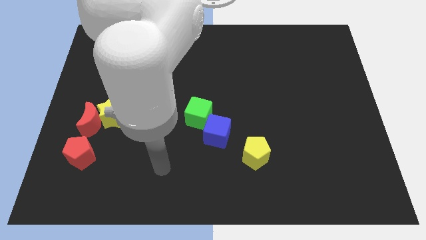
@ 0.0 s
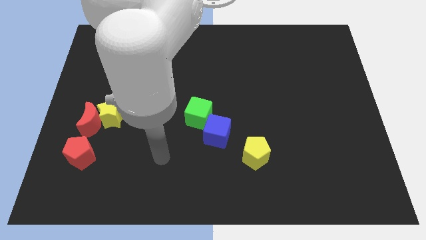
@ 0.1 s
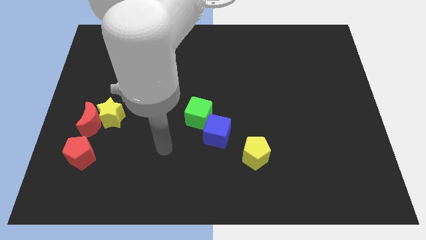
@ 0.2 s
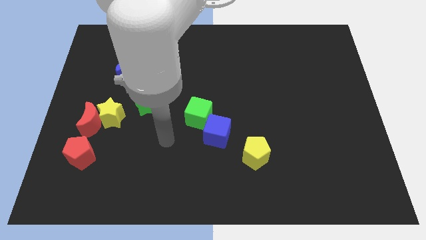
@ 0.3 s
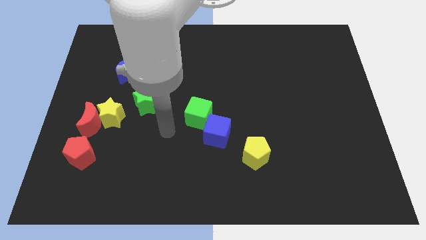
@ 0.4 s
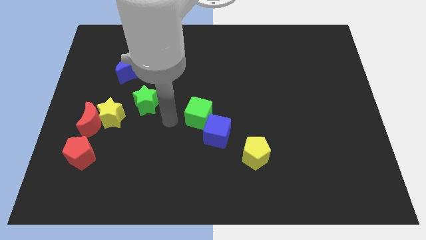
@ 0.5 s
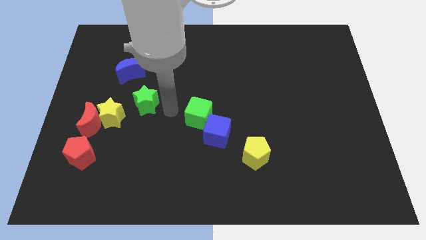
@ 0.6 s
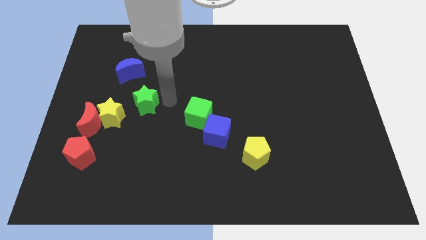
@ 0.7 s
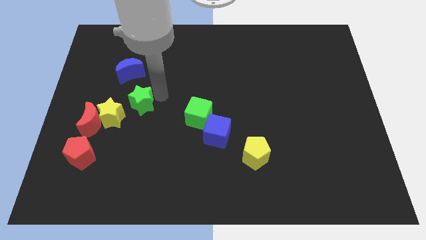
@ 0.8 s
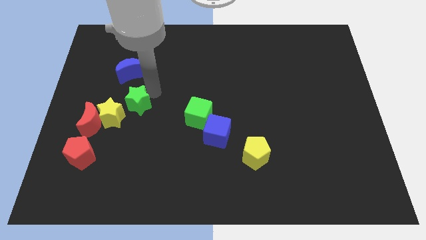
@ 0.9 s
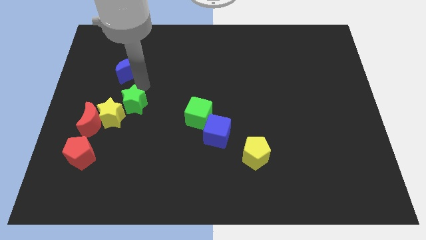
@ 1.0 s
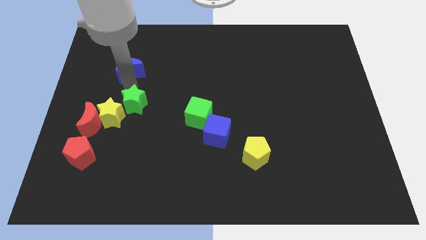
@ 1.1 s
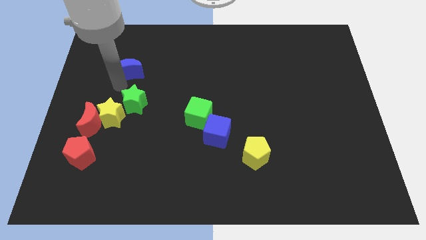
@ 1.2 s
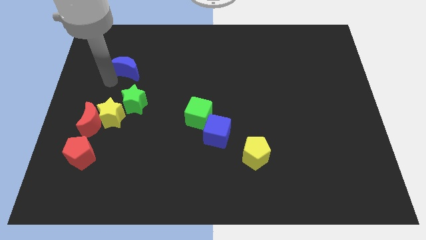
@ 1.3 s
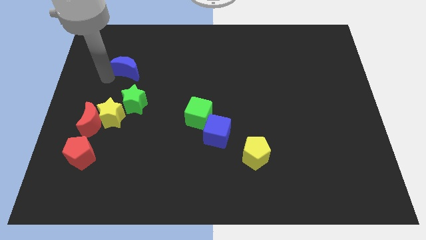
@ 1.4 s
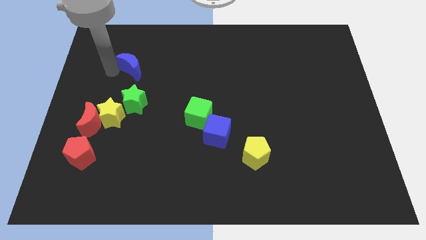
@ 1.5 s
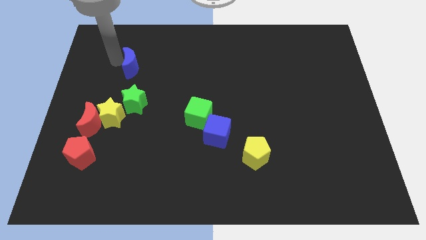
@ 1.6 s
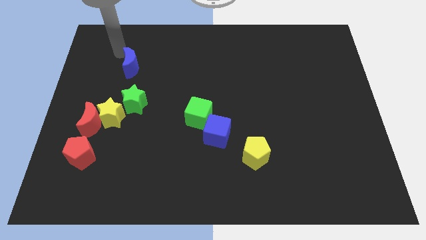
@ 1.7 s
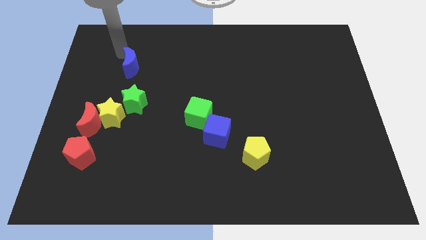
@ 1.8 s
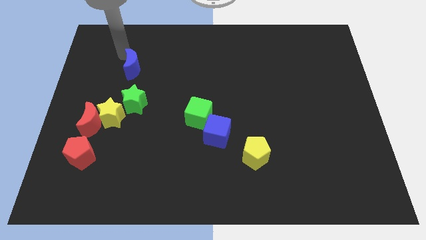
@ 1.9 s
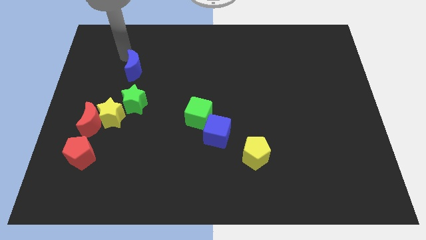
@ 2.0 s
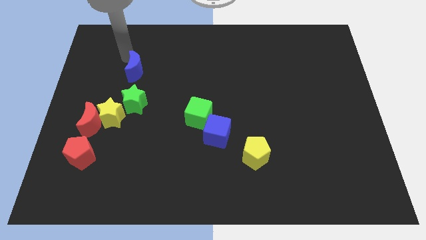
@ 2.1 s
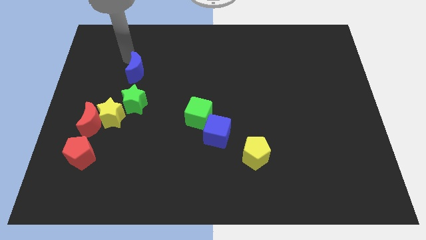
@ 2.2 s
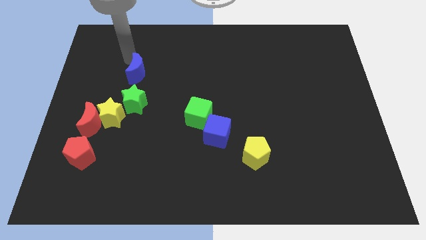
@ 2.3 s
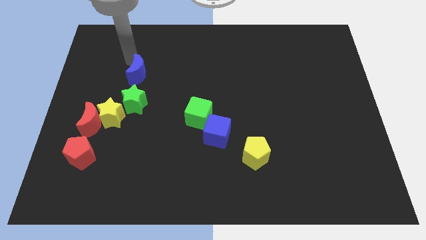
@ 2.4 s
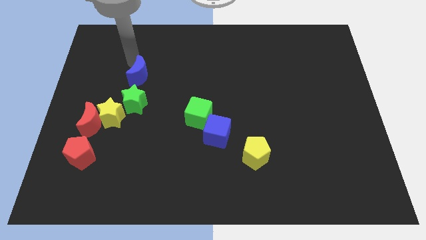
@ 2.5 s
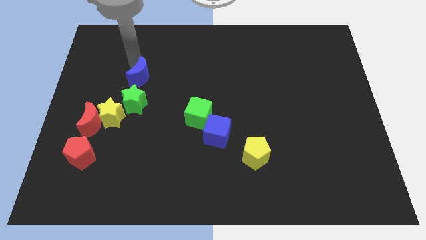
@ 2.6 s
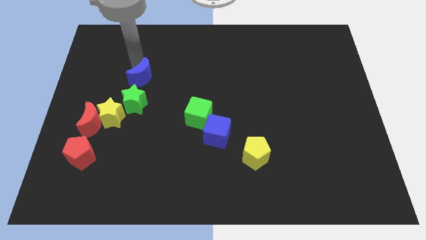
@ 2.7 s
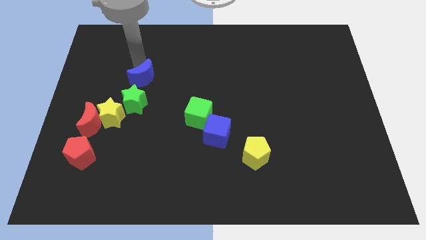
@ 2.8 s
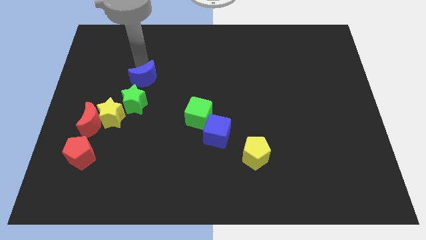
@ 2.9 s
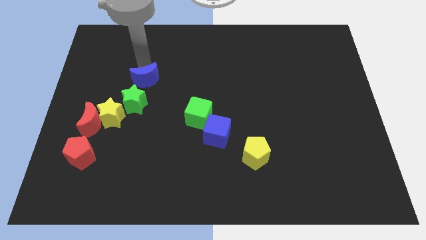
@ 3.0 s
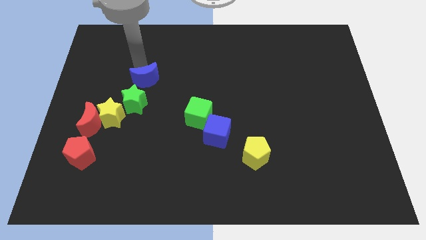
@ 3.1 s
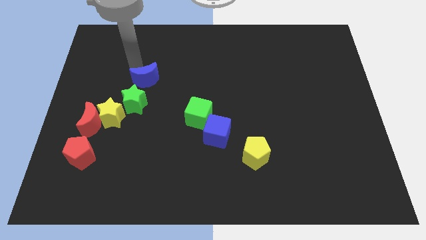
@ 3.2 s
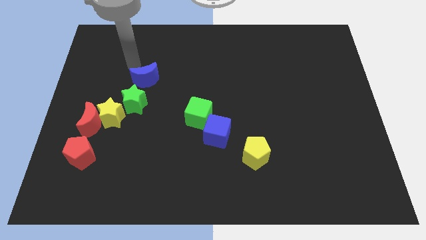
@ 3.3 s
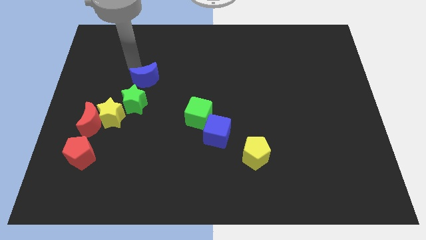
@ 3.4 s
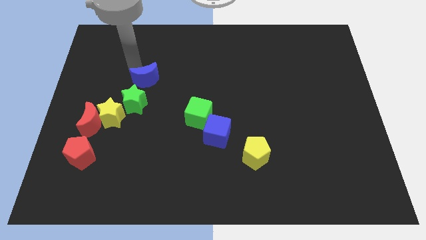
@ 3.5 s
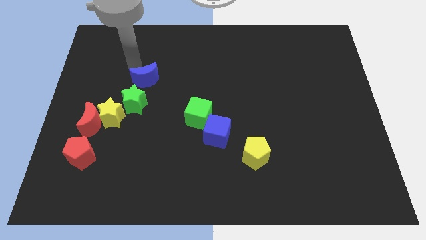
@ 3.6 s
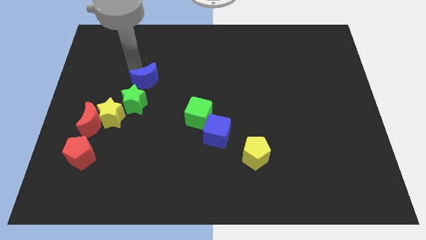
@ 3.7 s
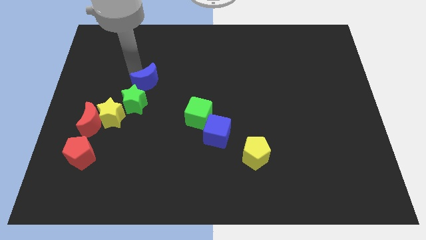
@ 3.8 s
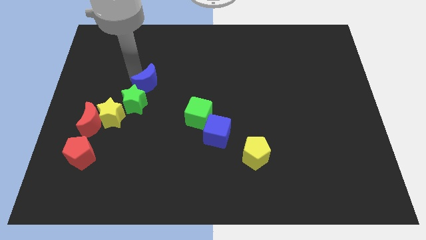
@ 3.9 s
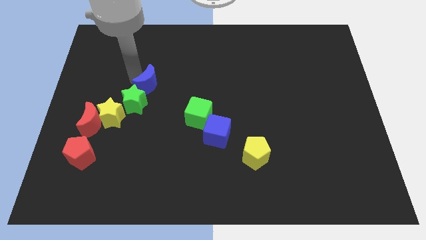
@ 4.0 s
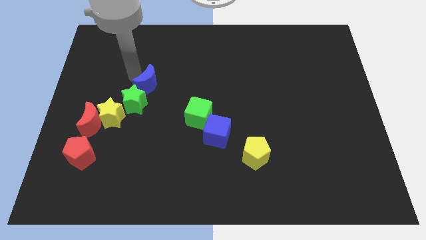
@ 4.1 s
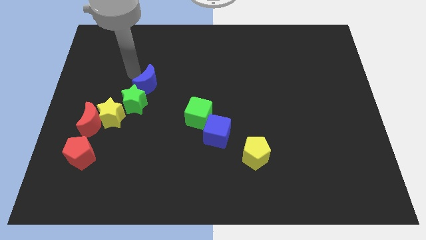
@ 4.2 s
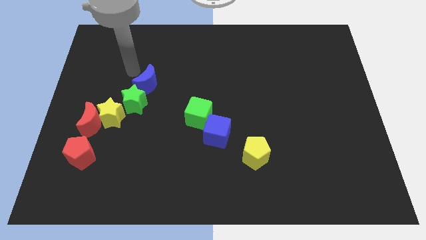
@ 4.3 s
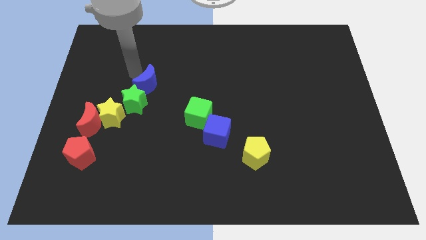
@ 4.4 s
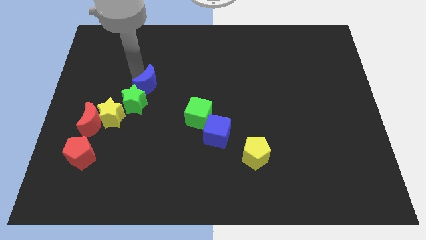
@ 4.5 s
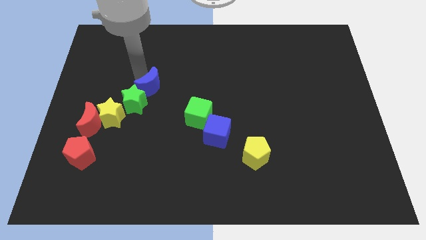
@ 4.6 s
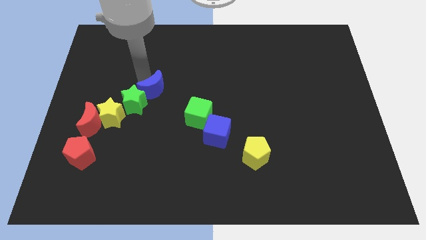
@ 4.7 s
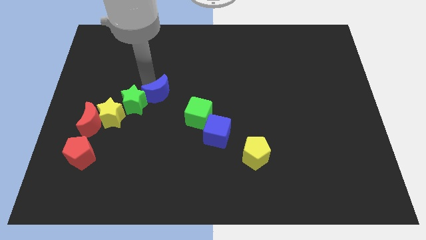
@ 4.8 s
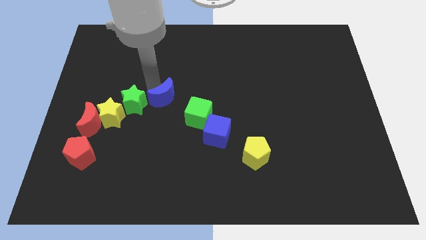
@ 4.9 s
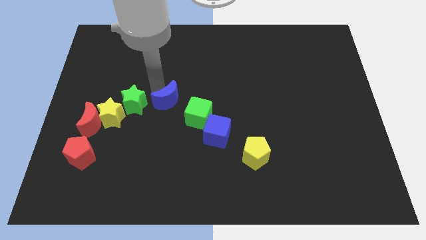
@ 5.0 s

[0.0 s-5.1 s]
slide the blue moon to the right side of the yellow star

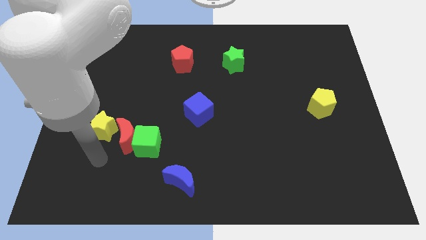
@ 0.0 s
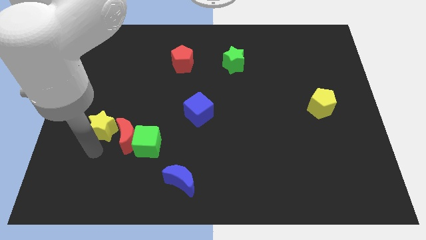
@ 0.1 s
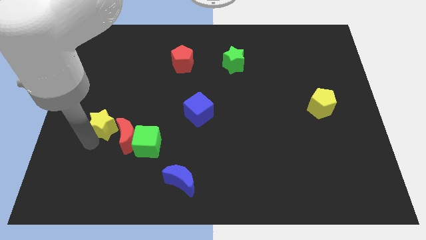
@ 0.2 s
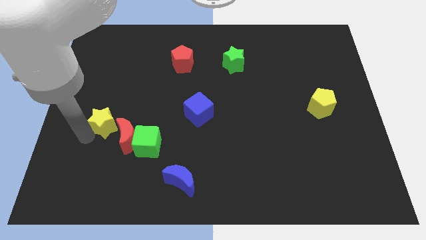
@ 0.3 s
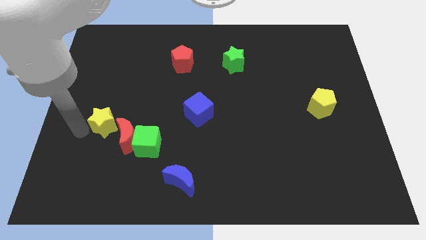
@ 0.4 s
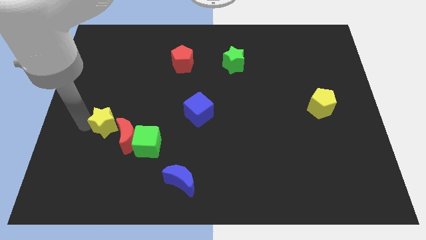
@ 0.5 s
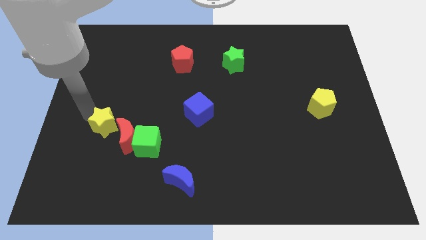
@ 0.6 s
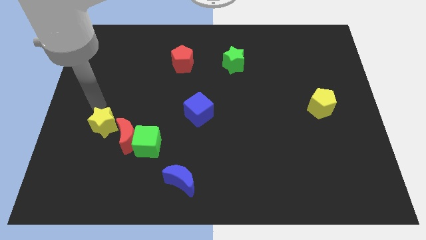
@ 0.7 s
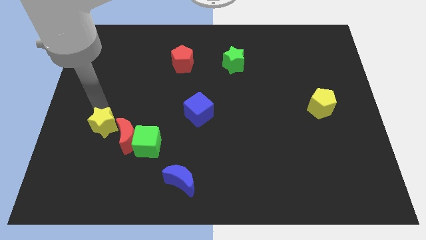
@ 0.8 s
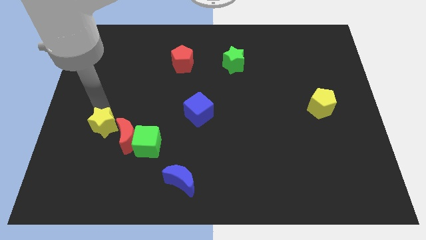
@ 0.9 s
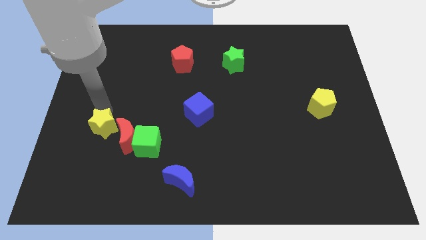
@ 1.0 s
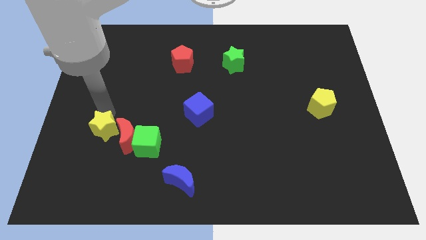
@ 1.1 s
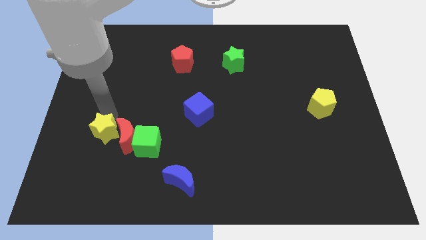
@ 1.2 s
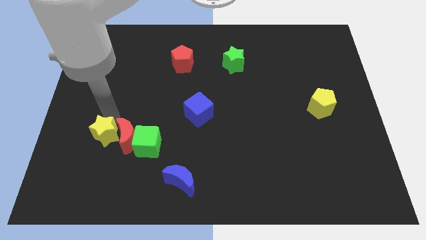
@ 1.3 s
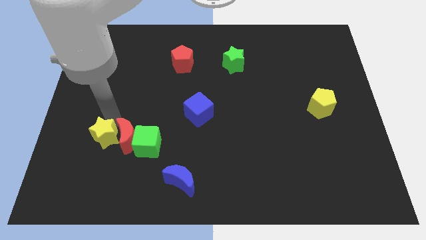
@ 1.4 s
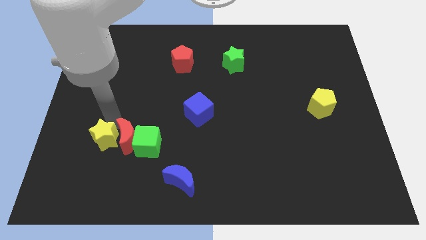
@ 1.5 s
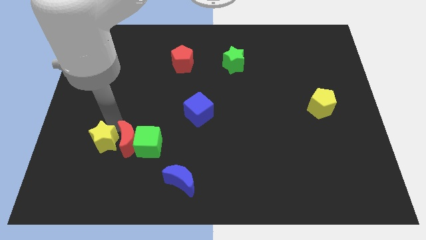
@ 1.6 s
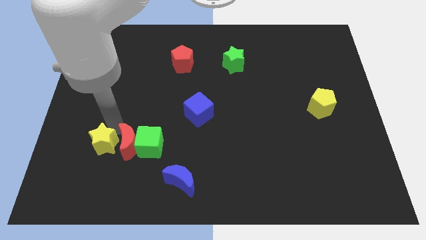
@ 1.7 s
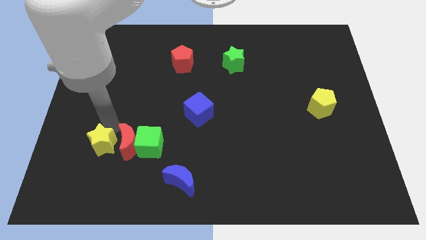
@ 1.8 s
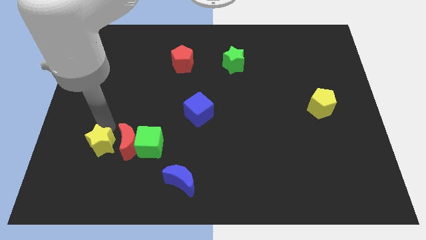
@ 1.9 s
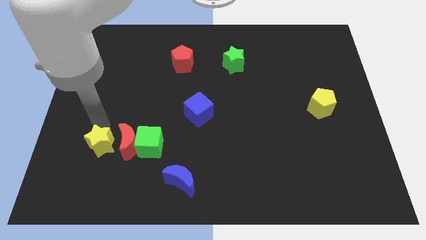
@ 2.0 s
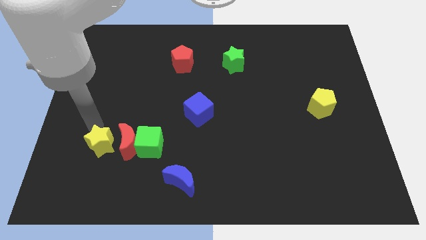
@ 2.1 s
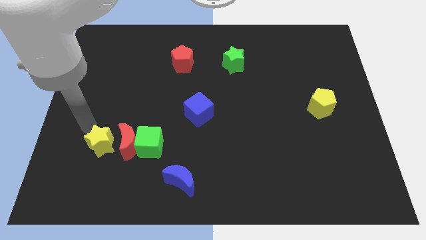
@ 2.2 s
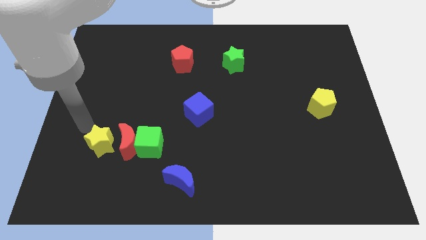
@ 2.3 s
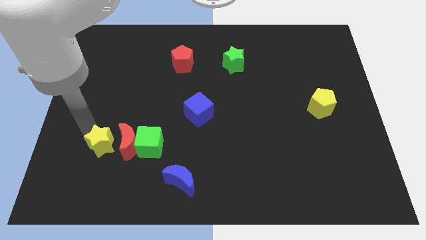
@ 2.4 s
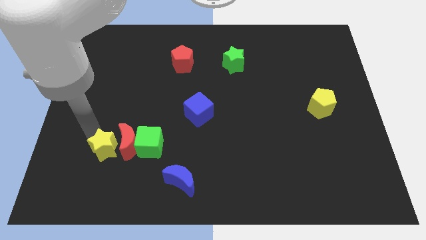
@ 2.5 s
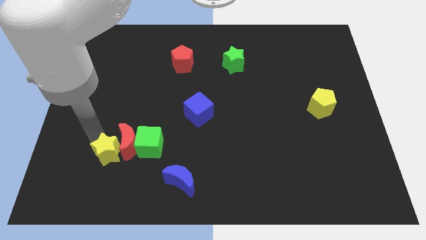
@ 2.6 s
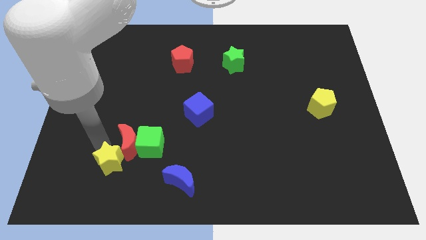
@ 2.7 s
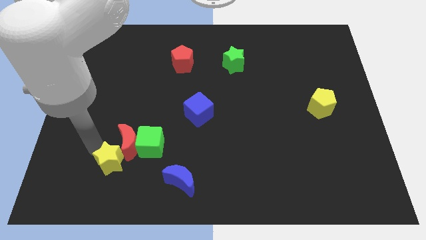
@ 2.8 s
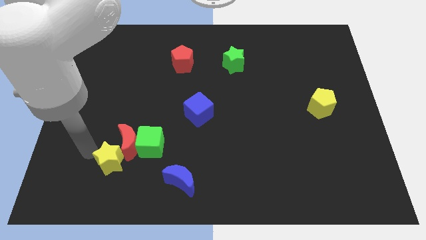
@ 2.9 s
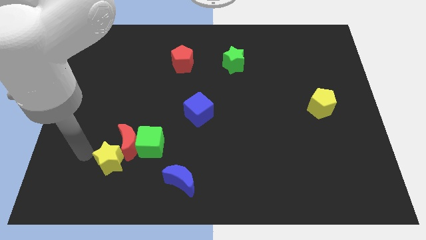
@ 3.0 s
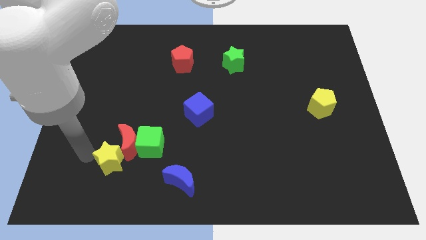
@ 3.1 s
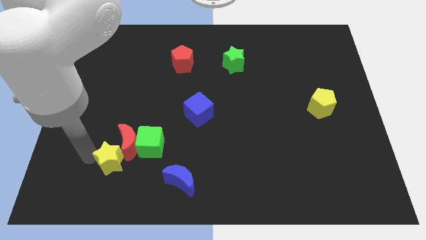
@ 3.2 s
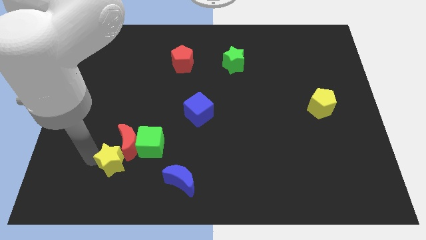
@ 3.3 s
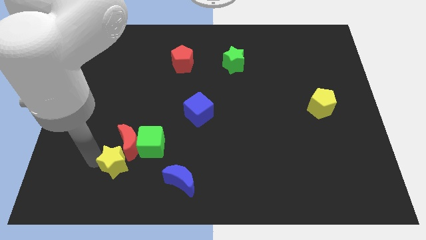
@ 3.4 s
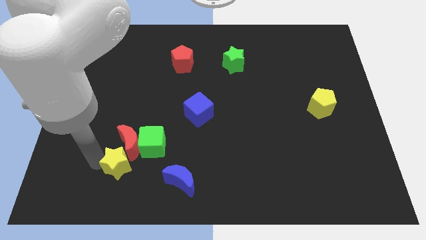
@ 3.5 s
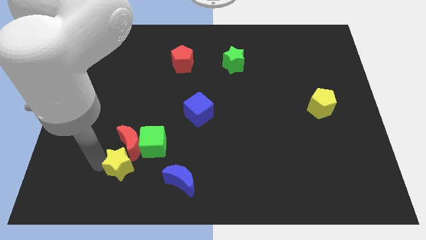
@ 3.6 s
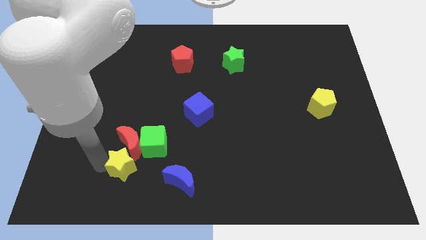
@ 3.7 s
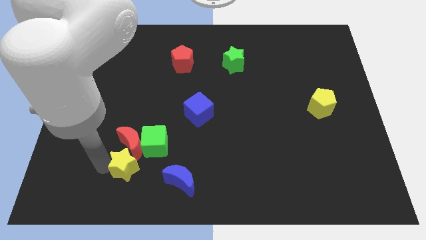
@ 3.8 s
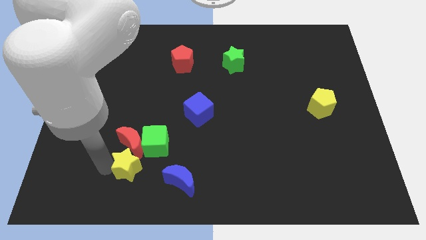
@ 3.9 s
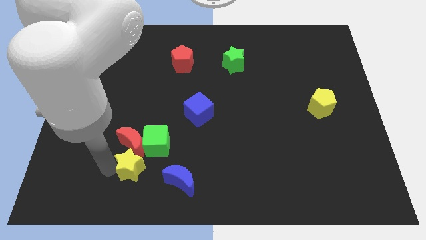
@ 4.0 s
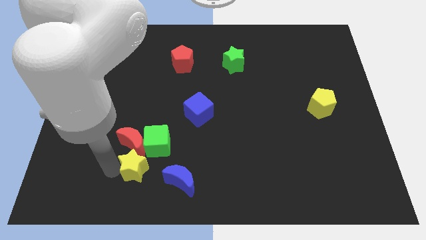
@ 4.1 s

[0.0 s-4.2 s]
slide the yellow star to the top left side of the blue moon
